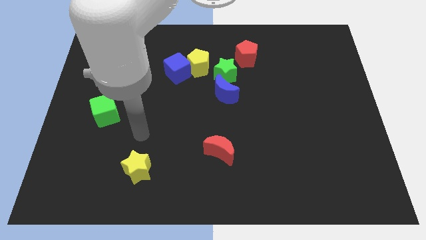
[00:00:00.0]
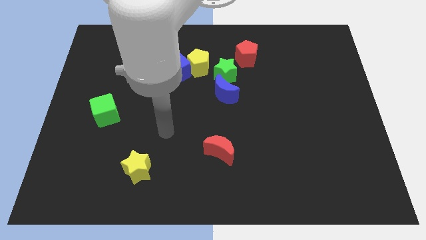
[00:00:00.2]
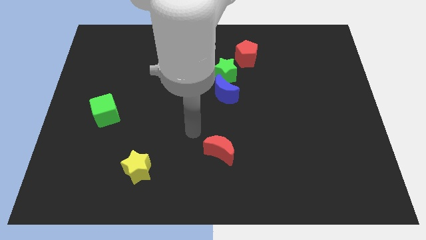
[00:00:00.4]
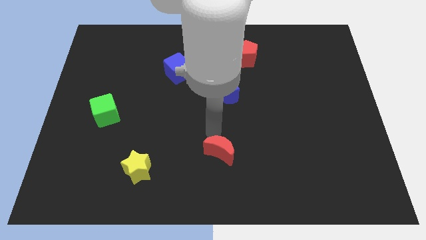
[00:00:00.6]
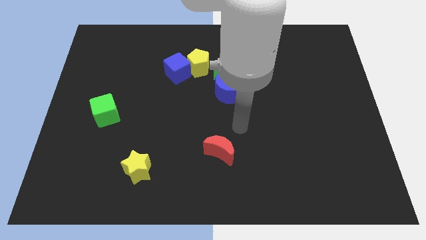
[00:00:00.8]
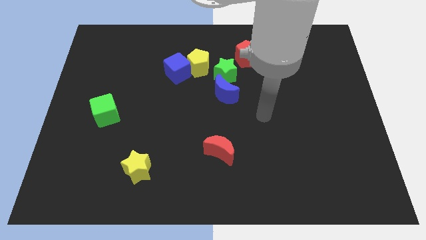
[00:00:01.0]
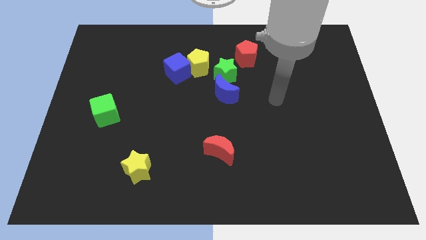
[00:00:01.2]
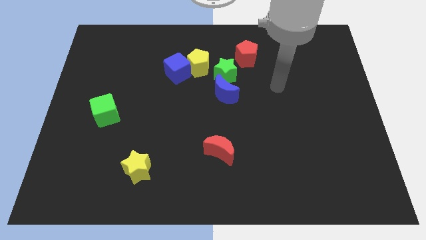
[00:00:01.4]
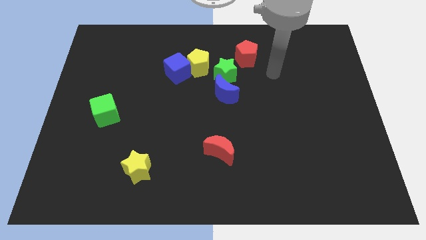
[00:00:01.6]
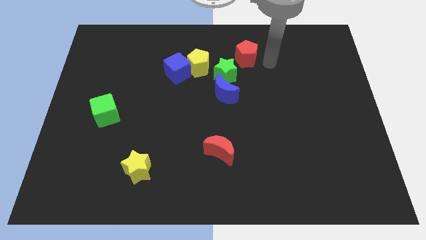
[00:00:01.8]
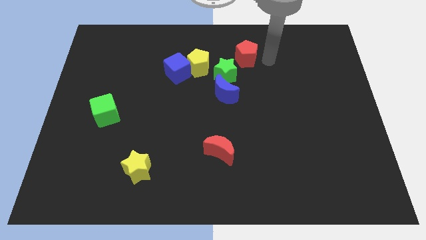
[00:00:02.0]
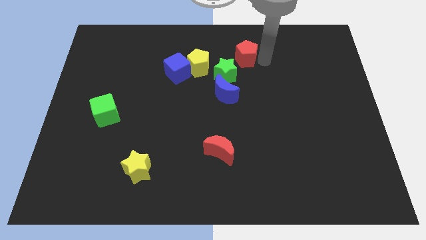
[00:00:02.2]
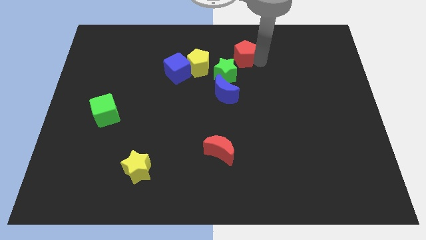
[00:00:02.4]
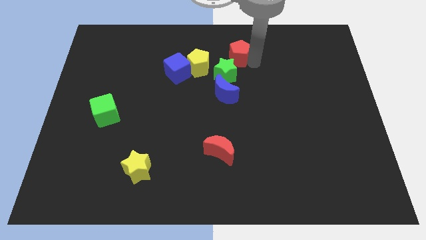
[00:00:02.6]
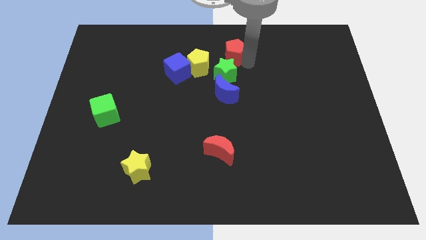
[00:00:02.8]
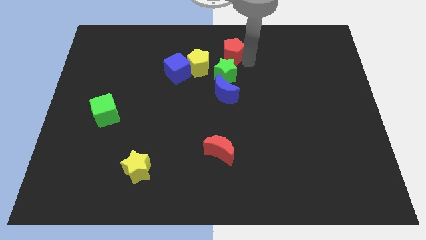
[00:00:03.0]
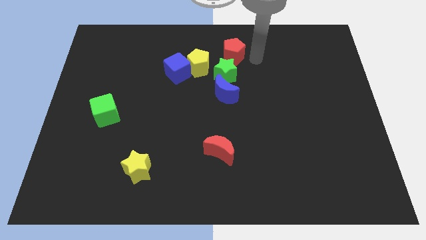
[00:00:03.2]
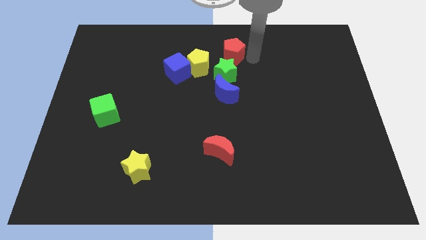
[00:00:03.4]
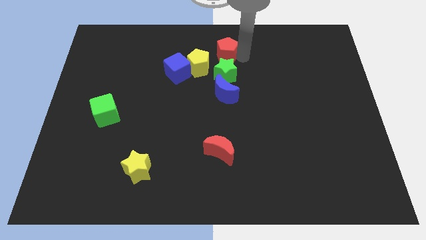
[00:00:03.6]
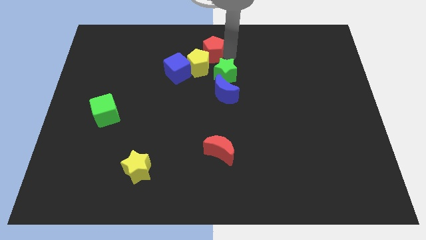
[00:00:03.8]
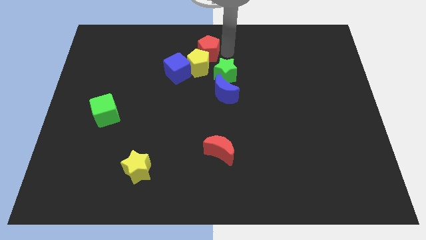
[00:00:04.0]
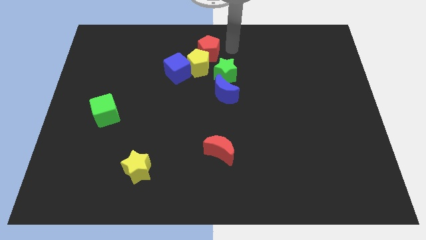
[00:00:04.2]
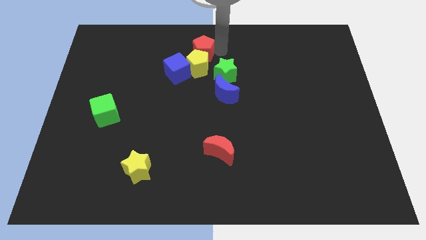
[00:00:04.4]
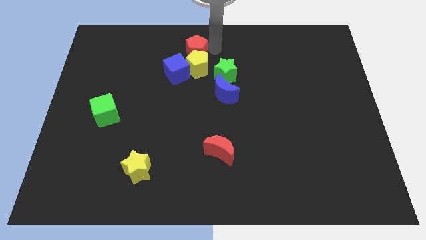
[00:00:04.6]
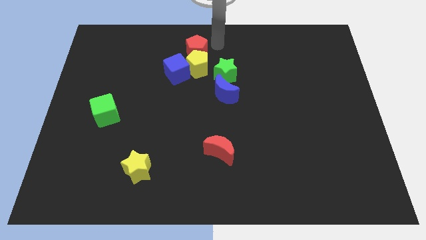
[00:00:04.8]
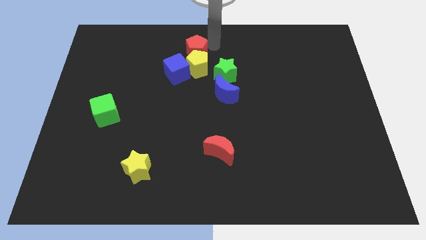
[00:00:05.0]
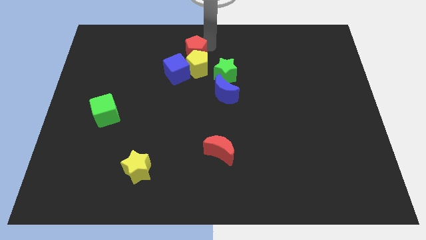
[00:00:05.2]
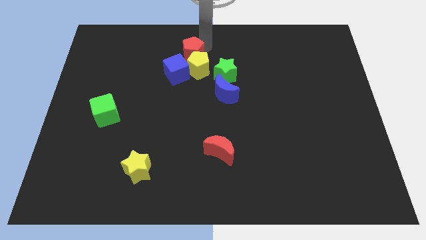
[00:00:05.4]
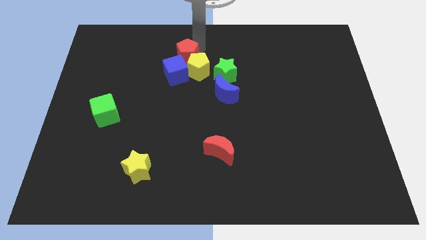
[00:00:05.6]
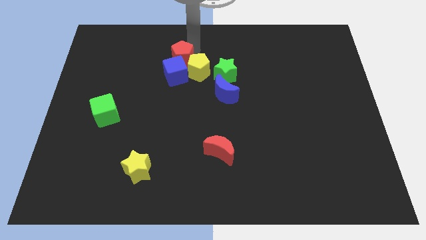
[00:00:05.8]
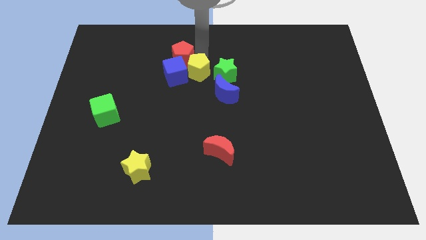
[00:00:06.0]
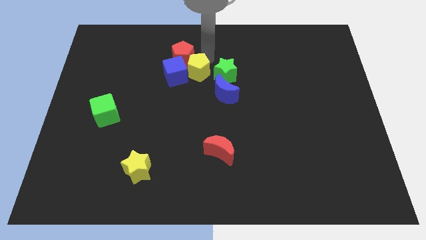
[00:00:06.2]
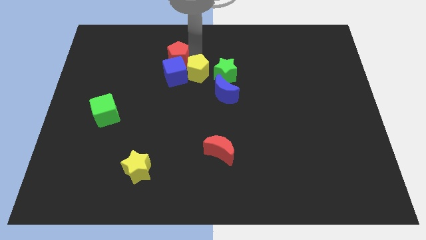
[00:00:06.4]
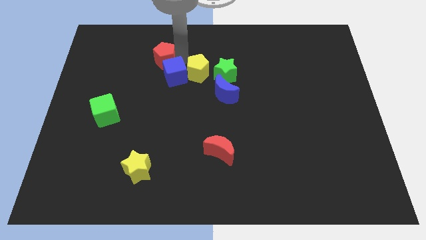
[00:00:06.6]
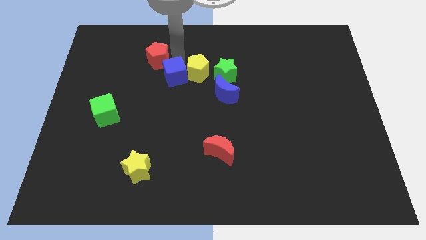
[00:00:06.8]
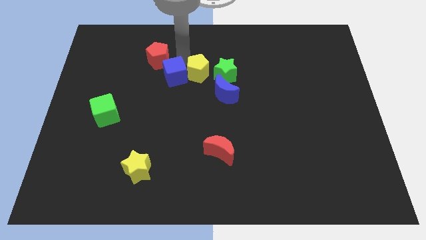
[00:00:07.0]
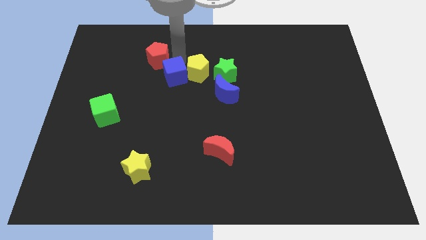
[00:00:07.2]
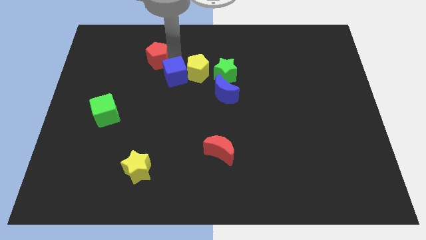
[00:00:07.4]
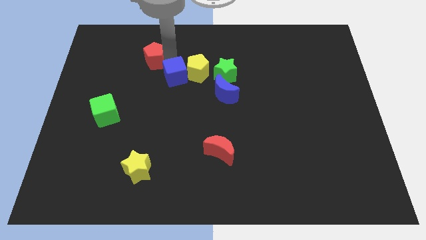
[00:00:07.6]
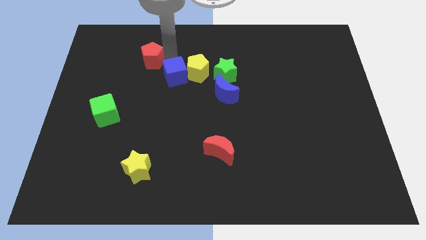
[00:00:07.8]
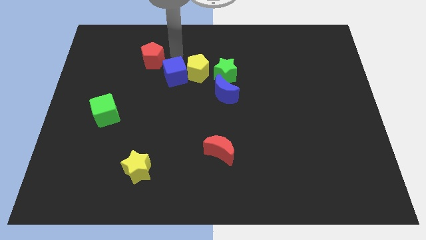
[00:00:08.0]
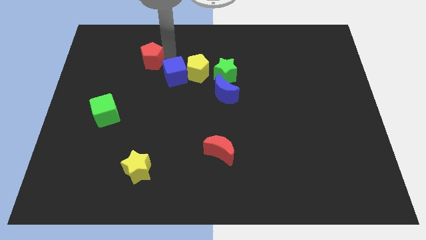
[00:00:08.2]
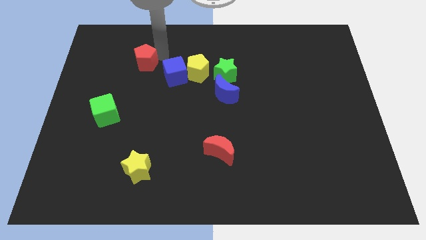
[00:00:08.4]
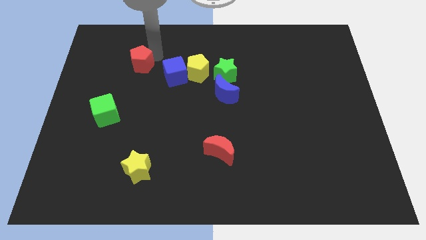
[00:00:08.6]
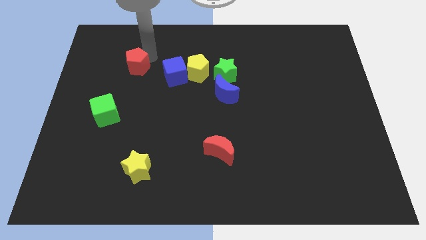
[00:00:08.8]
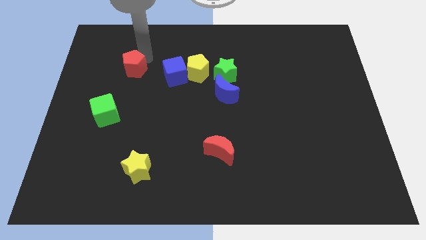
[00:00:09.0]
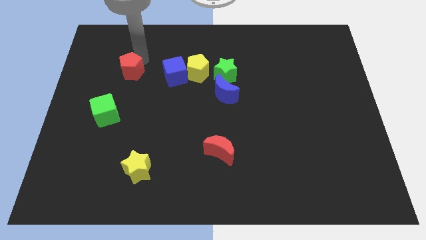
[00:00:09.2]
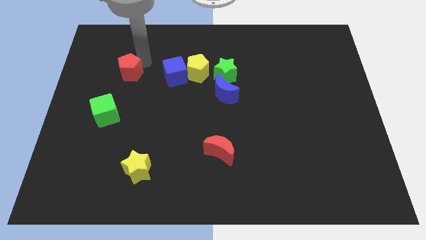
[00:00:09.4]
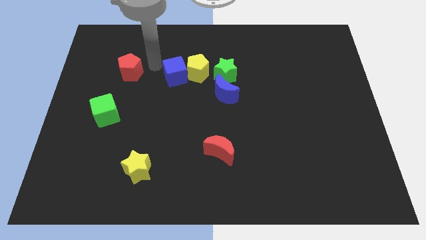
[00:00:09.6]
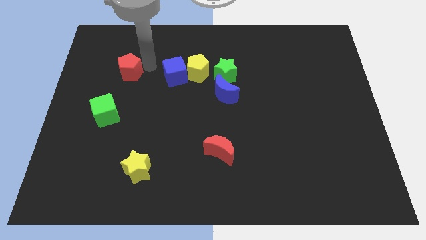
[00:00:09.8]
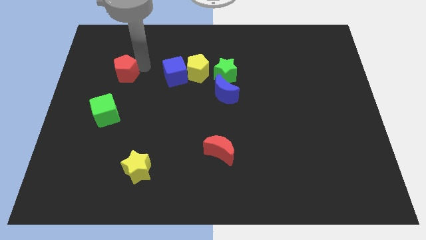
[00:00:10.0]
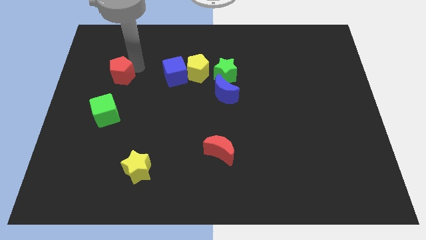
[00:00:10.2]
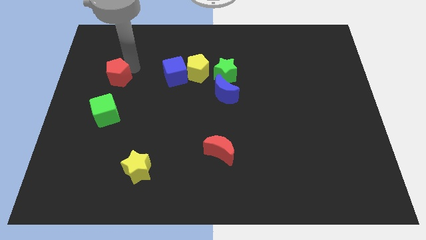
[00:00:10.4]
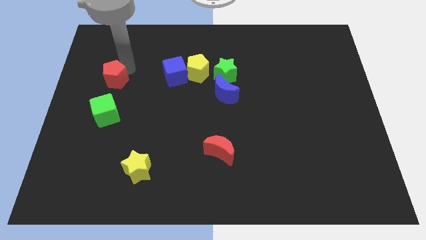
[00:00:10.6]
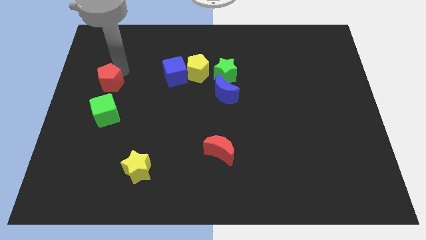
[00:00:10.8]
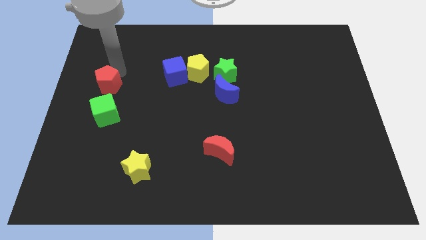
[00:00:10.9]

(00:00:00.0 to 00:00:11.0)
put the red pentagon to the left side of the board
